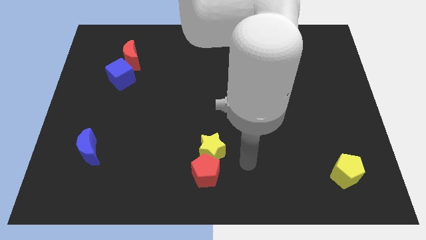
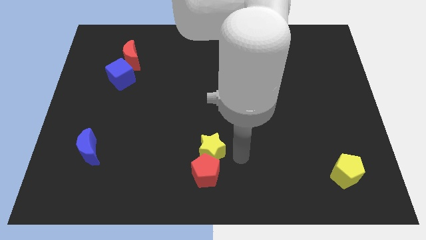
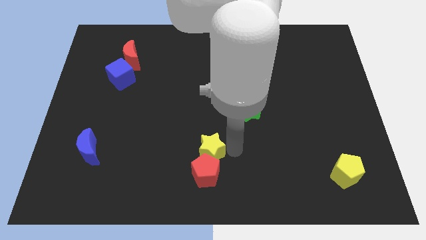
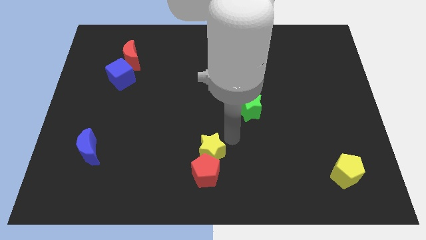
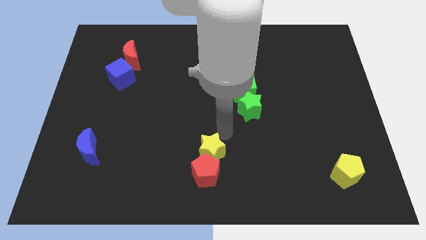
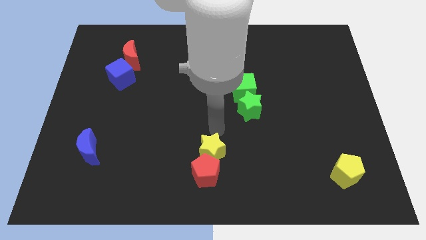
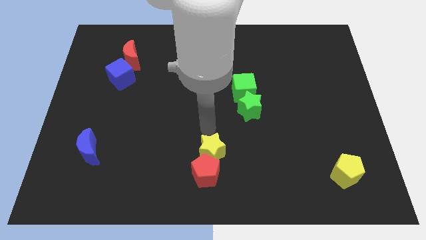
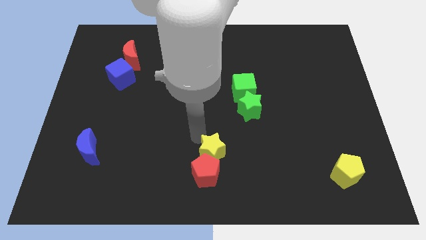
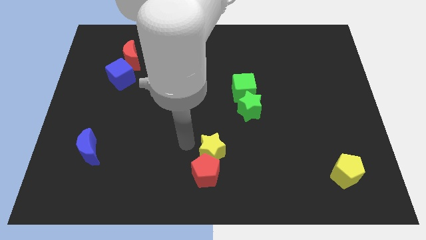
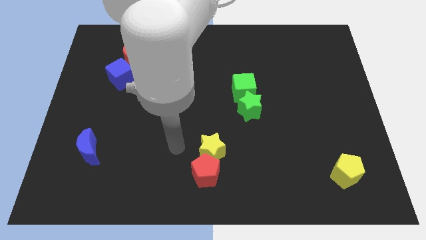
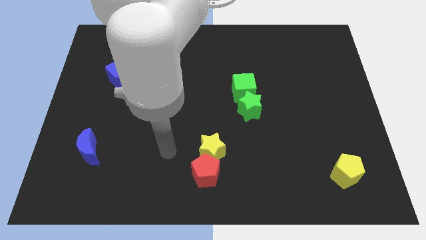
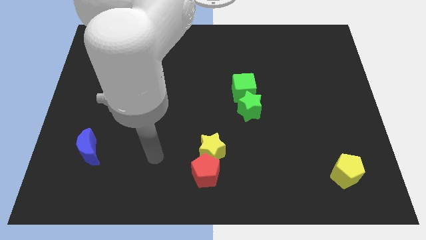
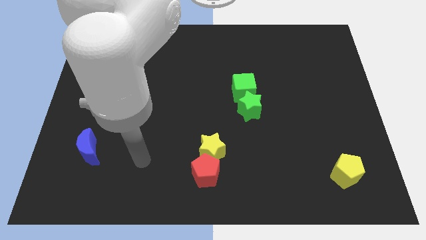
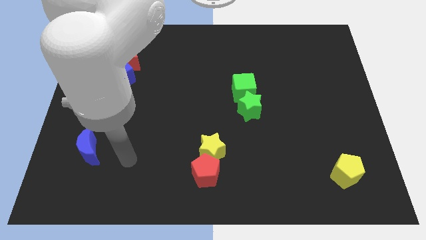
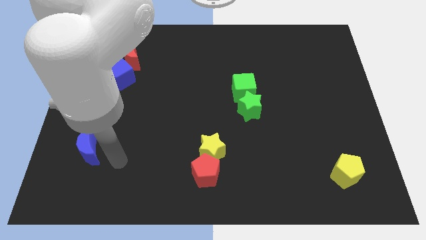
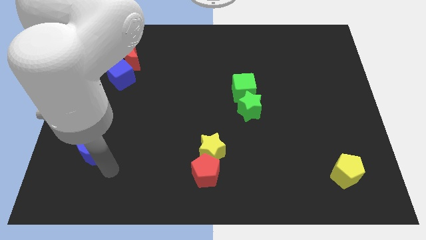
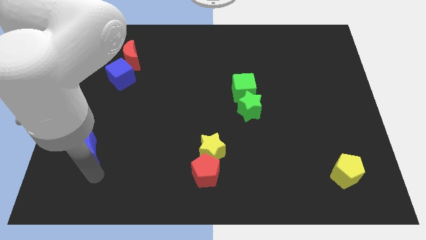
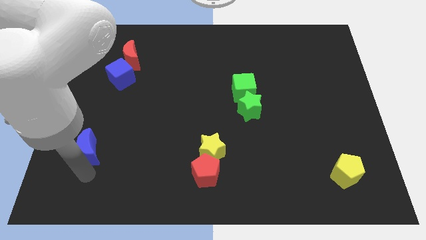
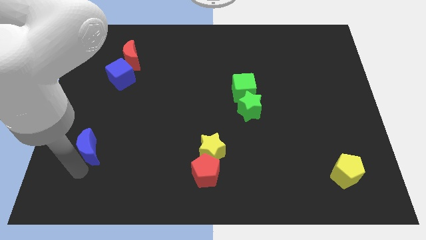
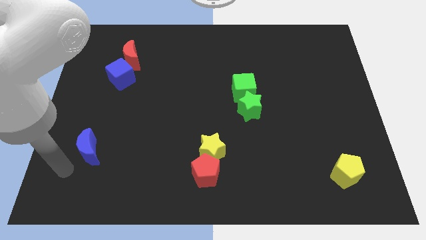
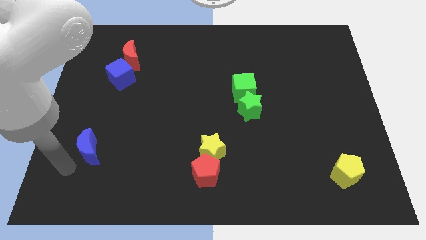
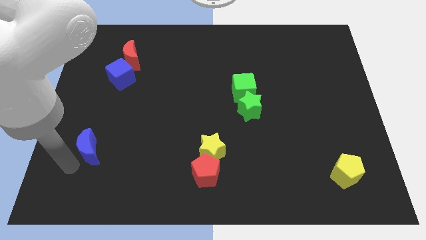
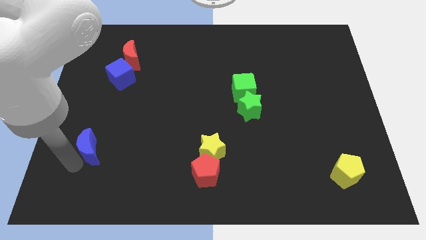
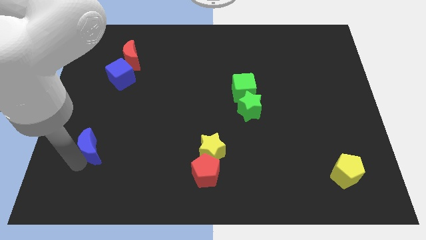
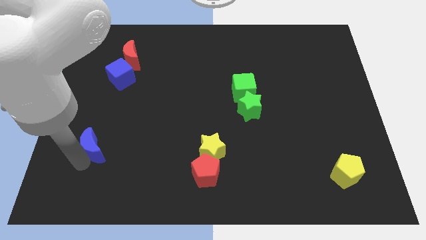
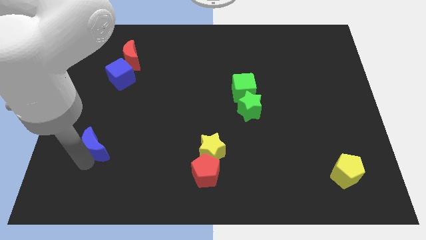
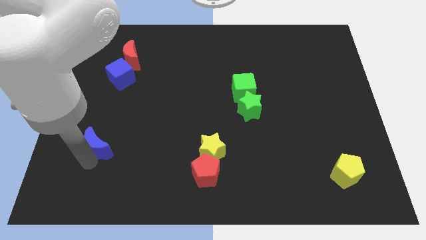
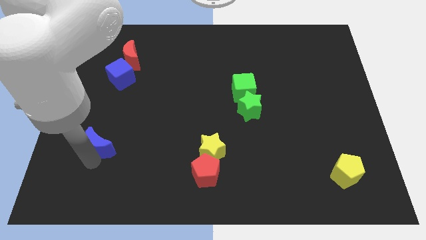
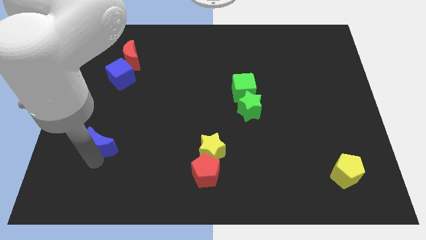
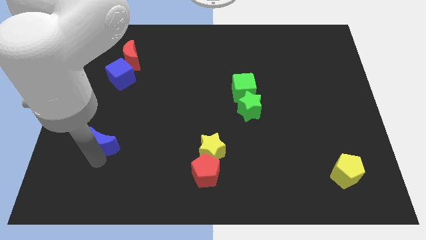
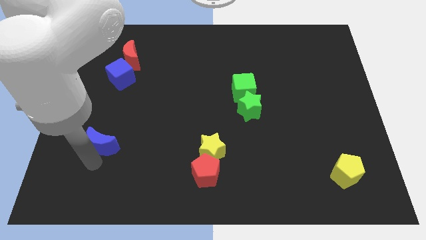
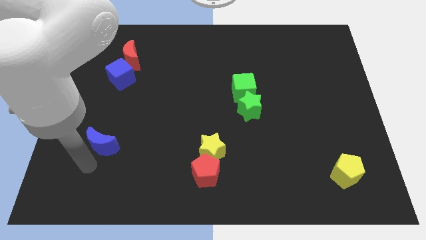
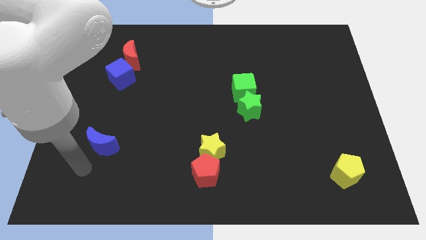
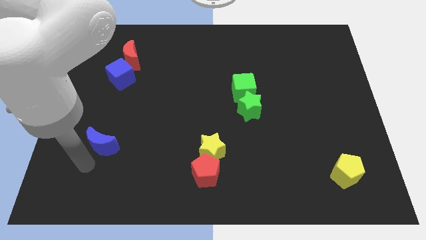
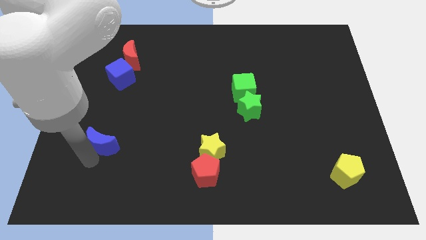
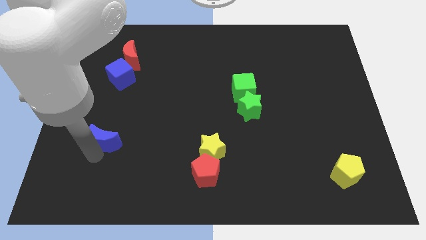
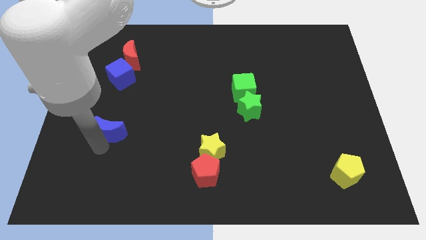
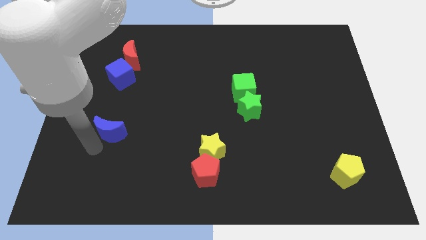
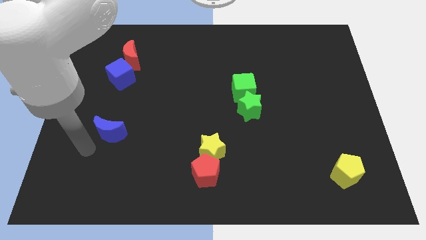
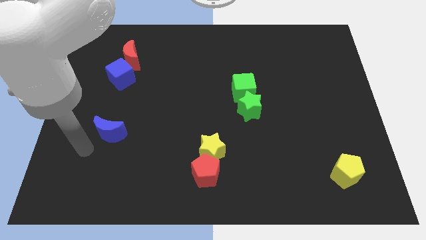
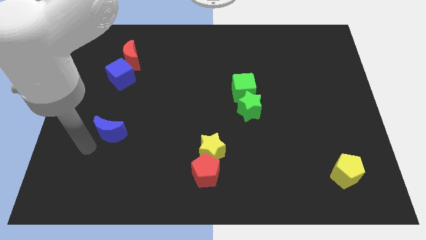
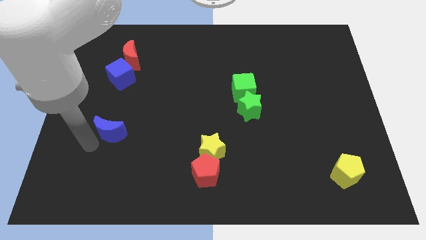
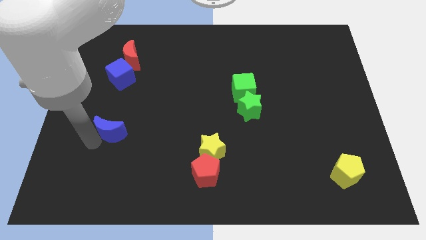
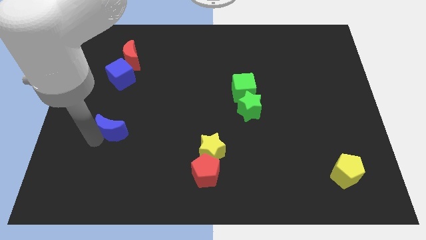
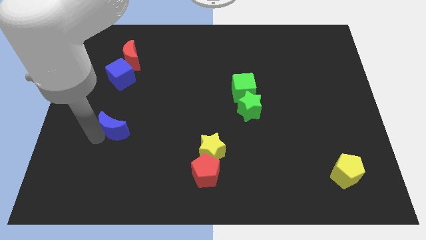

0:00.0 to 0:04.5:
push the blue moon diagonally up and right somewhat

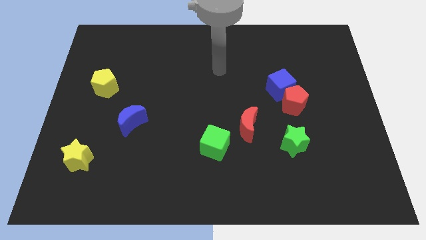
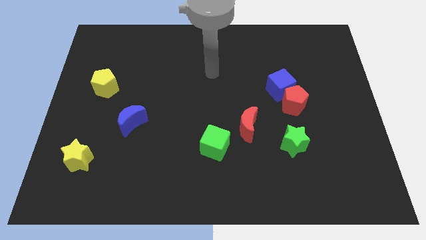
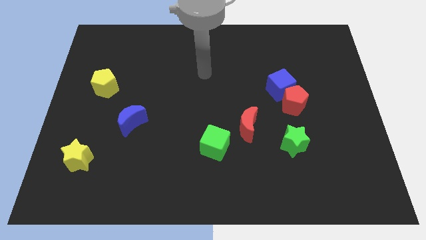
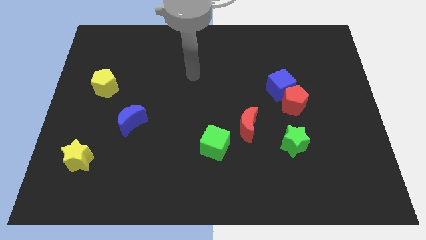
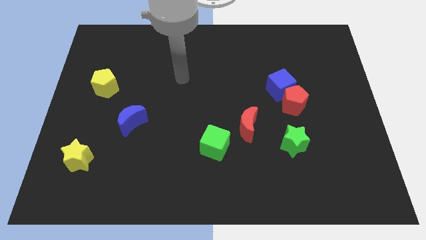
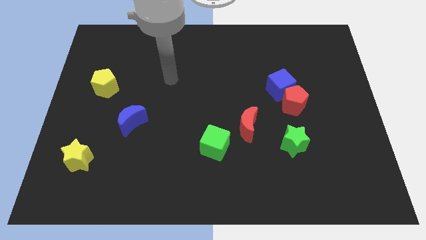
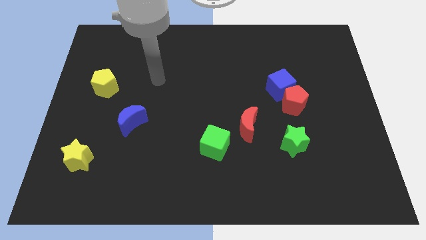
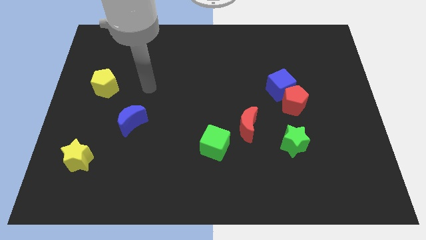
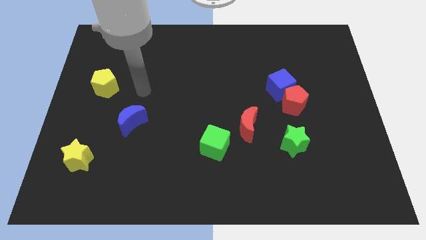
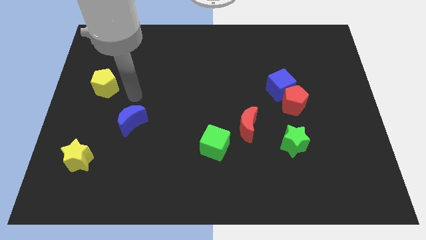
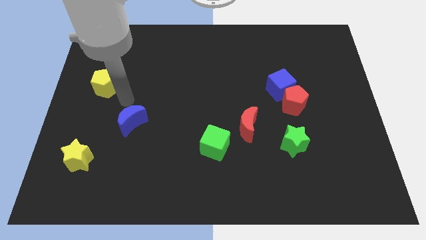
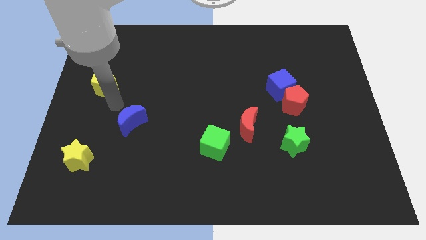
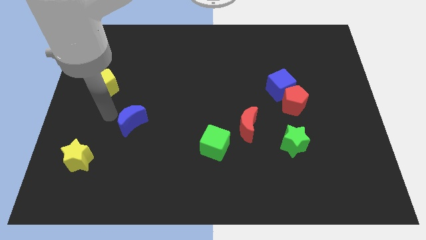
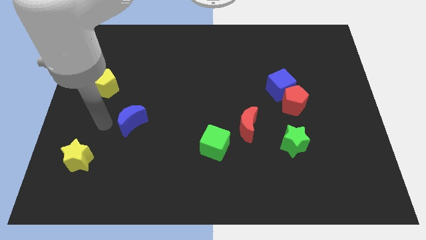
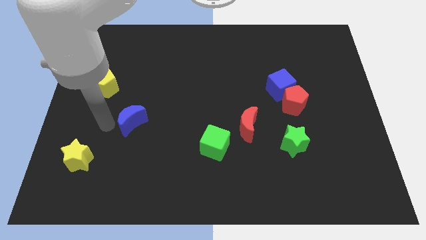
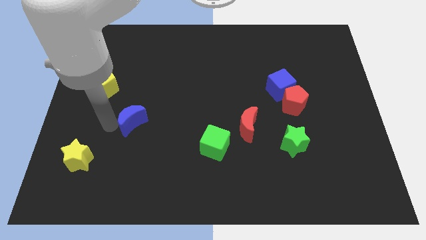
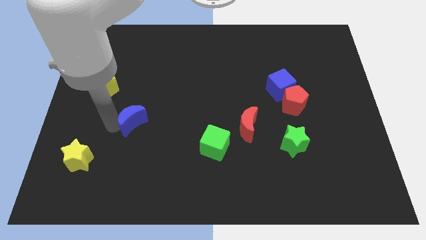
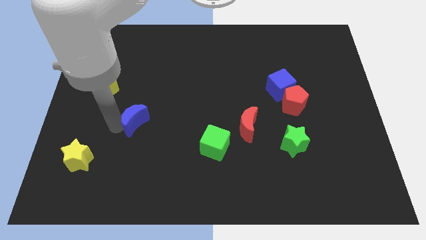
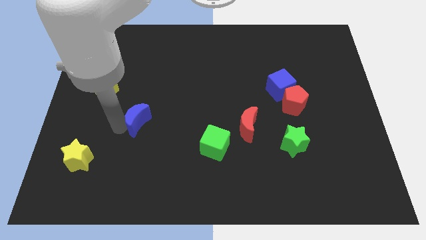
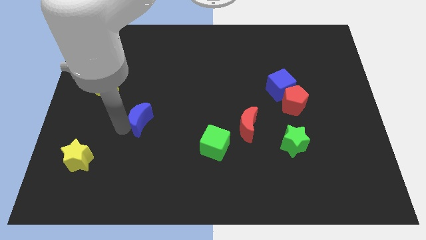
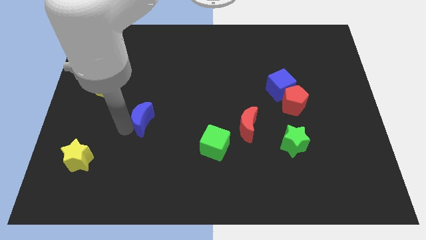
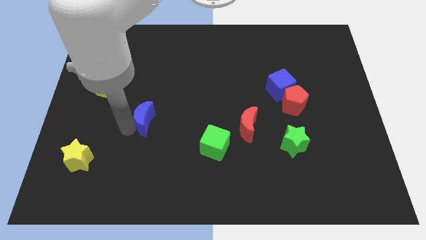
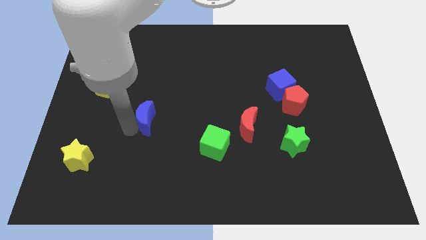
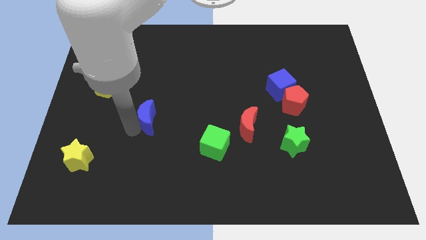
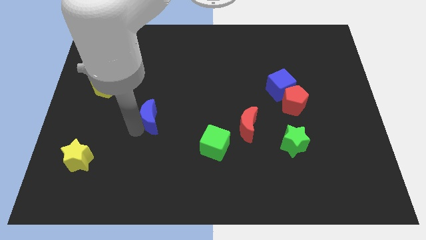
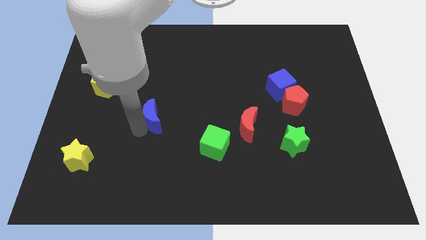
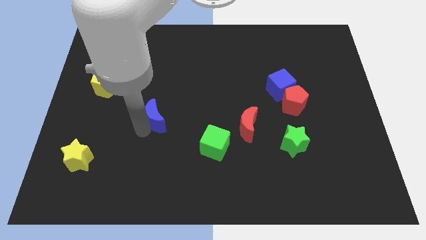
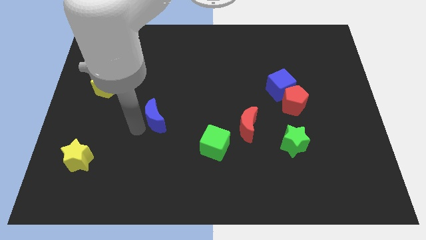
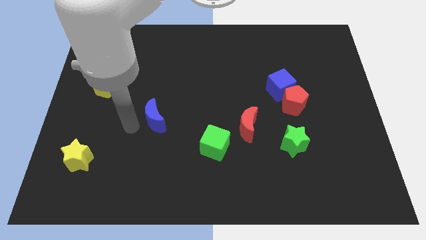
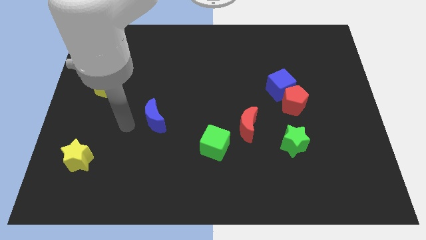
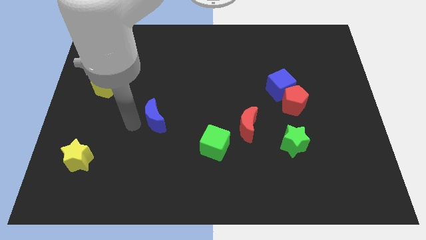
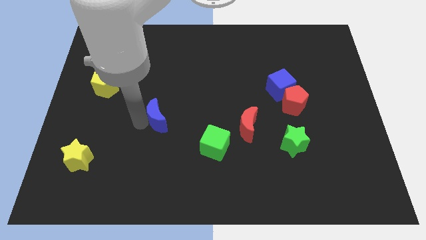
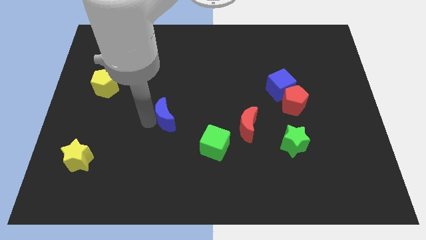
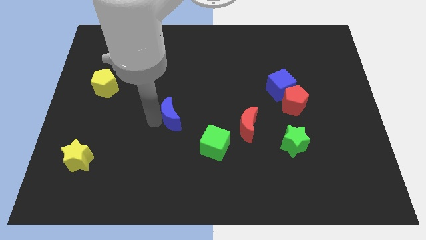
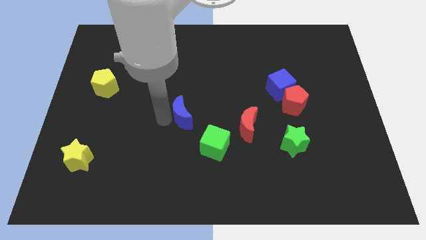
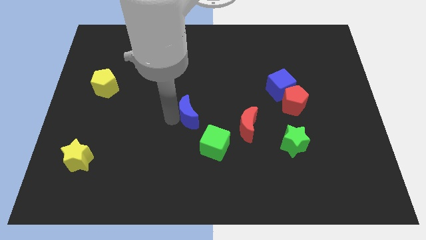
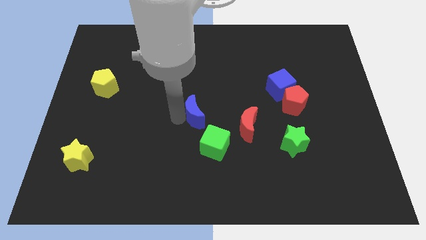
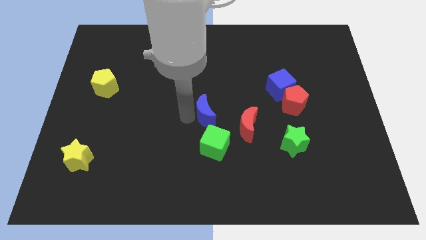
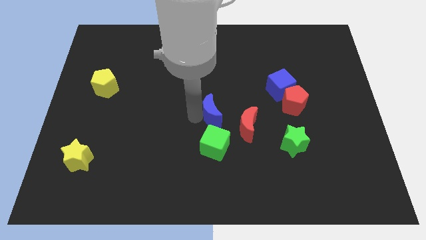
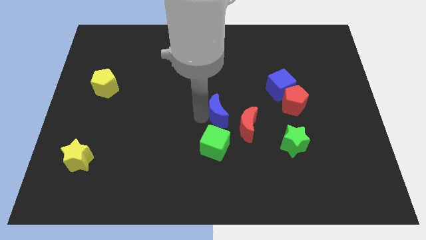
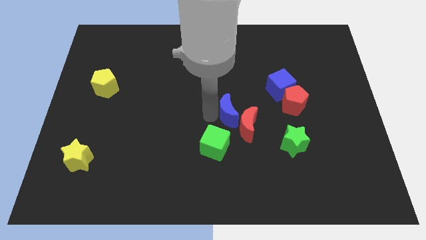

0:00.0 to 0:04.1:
move the blue moon to the right
